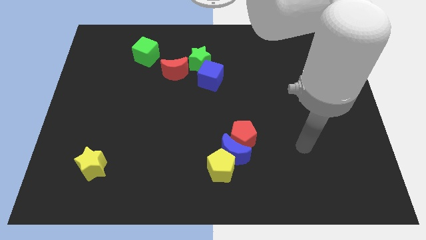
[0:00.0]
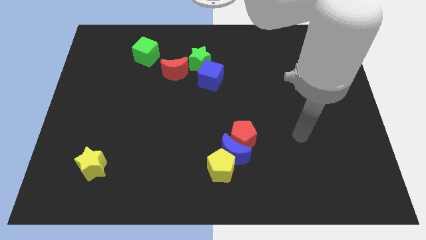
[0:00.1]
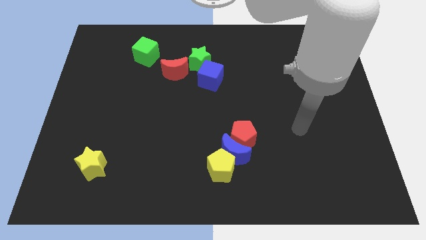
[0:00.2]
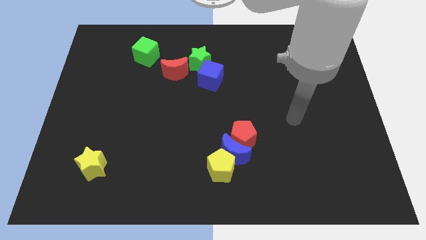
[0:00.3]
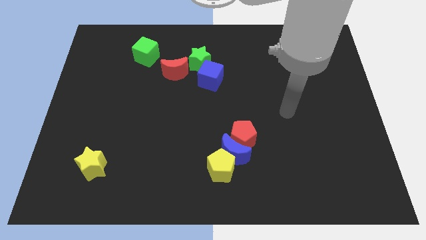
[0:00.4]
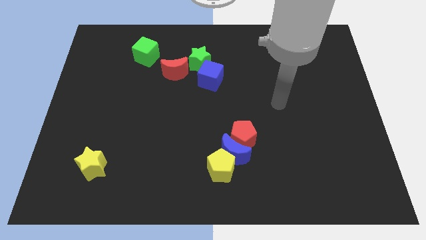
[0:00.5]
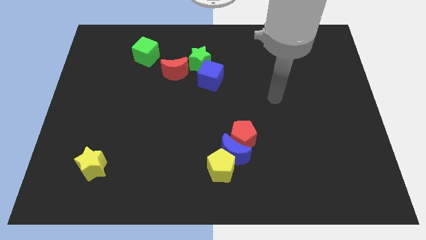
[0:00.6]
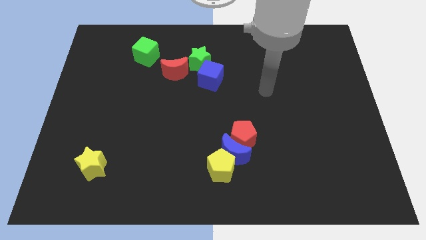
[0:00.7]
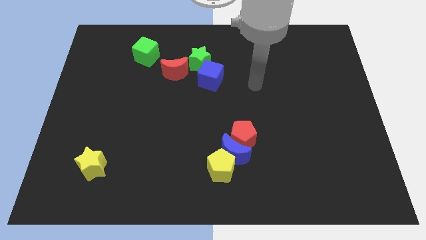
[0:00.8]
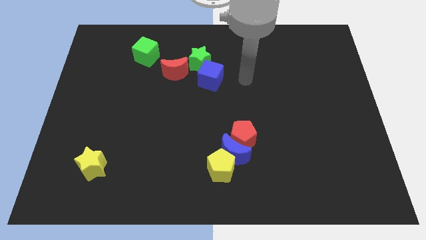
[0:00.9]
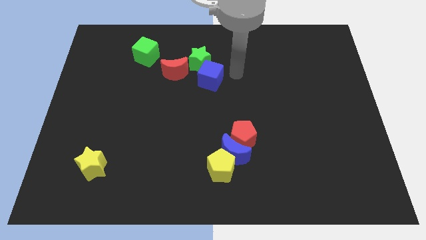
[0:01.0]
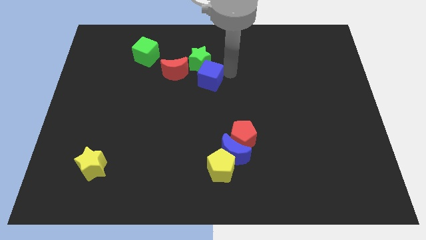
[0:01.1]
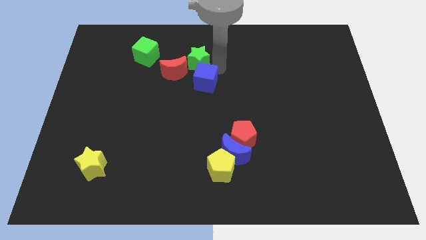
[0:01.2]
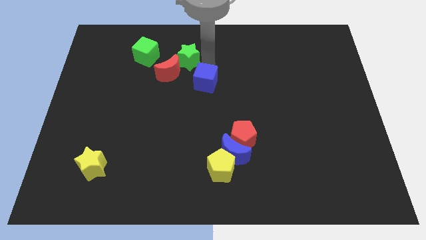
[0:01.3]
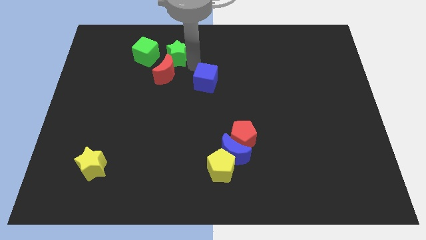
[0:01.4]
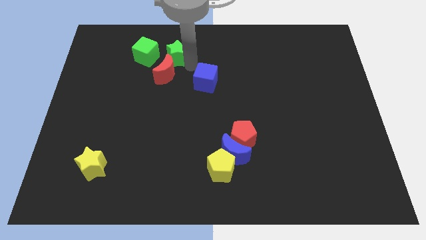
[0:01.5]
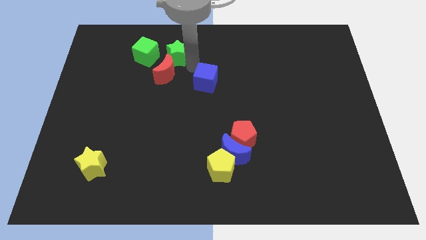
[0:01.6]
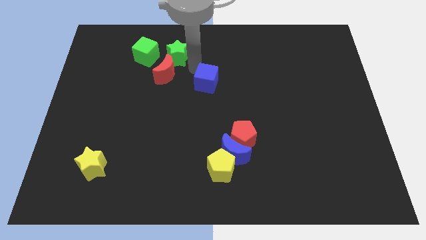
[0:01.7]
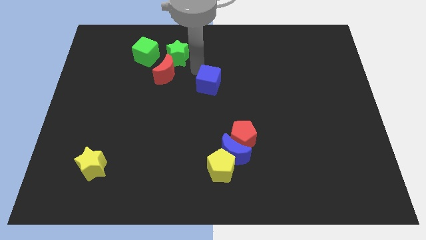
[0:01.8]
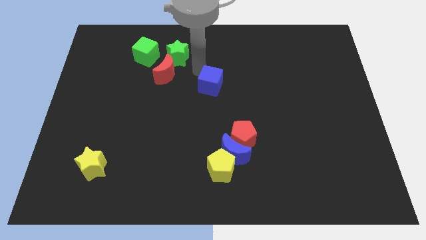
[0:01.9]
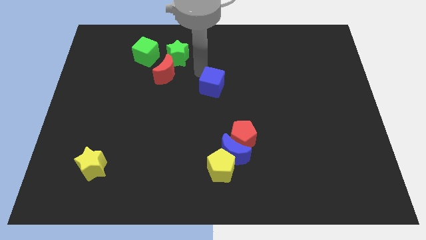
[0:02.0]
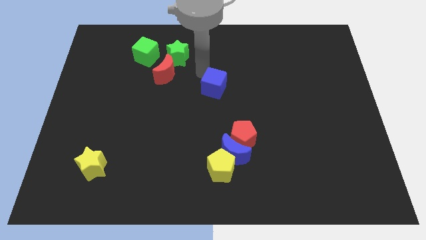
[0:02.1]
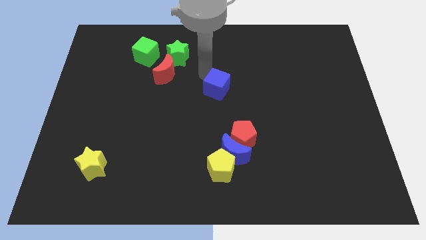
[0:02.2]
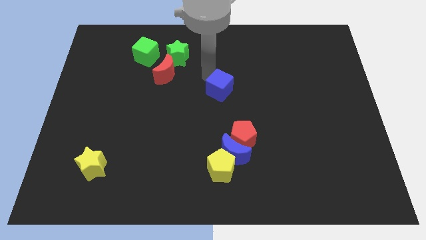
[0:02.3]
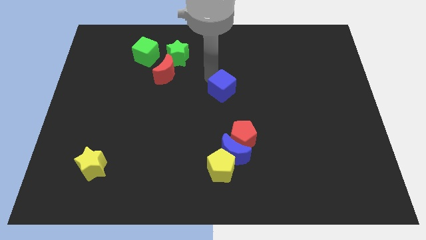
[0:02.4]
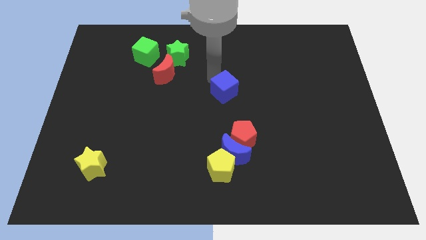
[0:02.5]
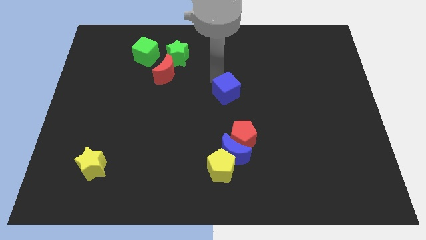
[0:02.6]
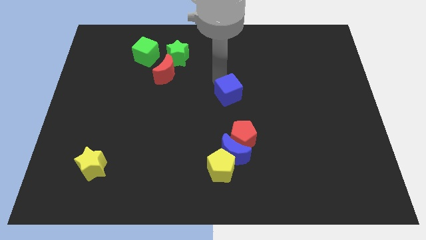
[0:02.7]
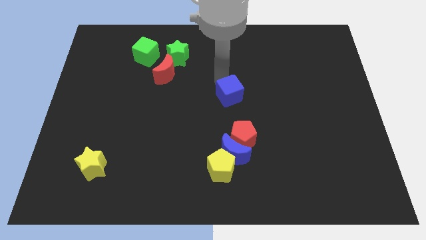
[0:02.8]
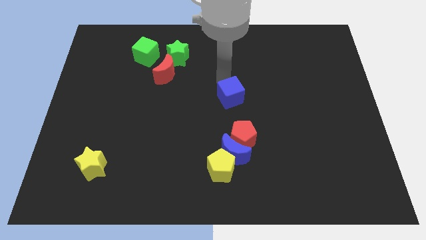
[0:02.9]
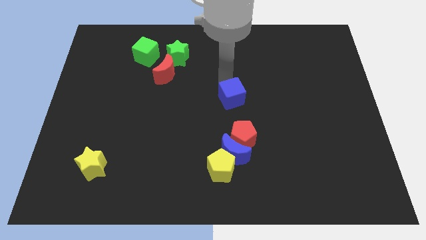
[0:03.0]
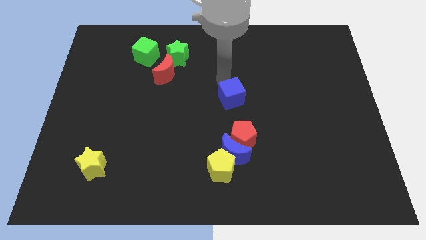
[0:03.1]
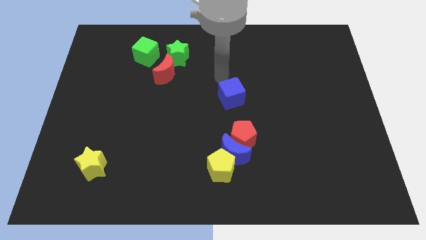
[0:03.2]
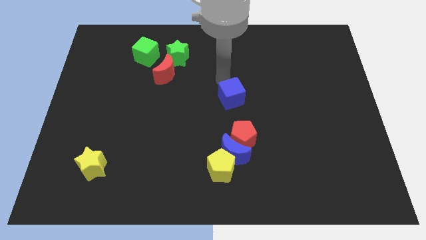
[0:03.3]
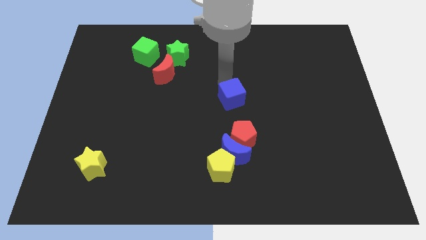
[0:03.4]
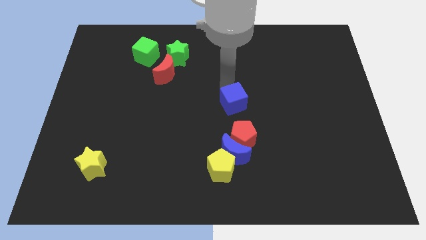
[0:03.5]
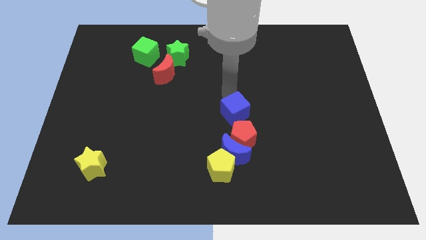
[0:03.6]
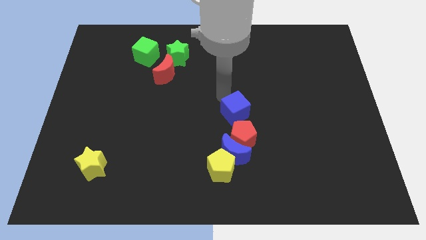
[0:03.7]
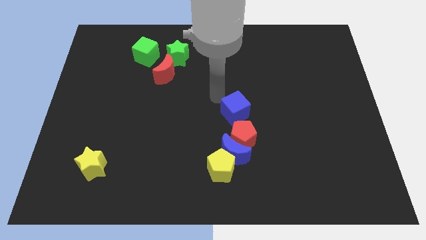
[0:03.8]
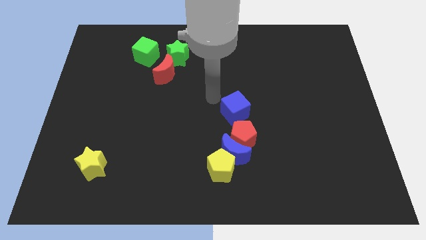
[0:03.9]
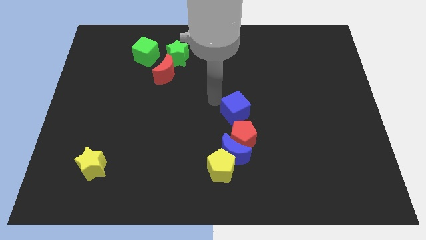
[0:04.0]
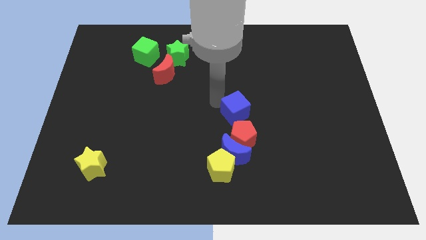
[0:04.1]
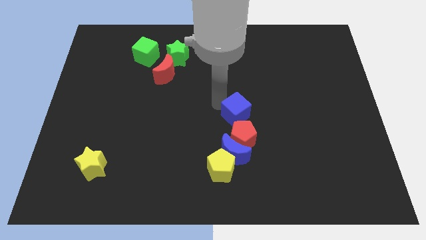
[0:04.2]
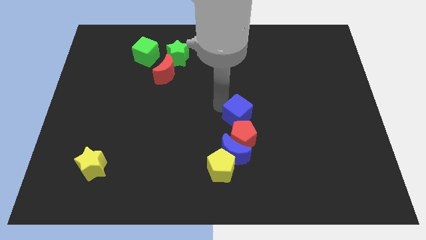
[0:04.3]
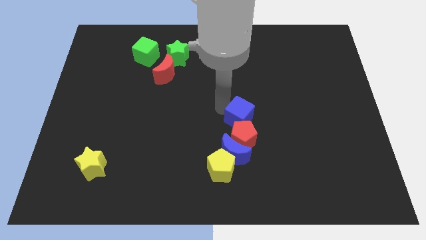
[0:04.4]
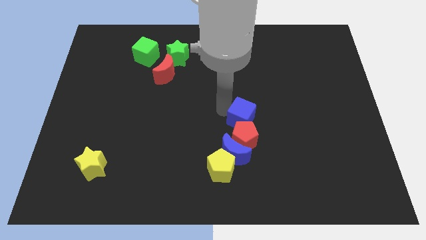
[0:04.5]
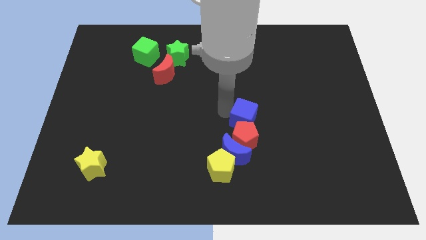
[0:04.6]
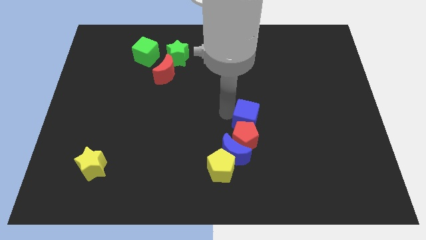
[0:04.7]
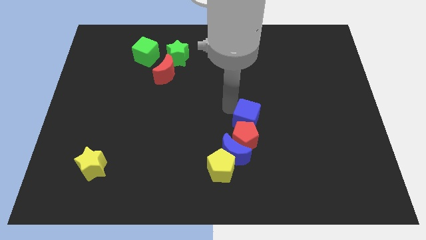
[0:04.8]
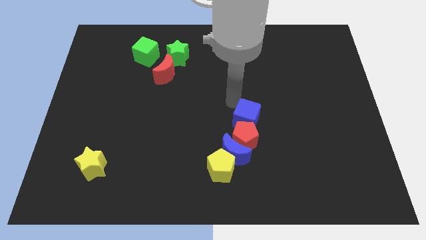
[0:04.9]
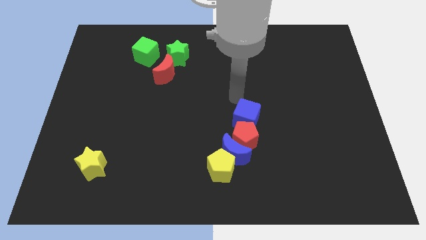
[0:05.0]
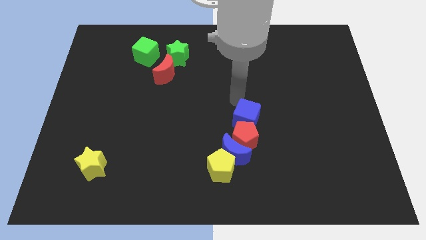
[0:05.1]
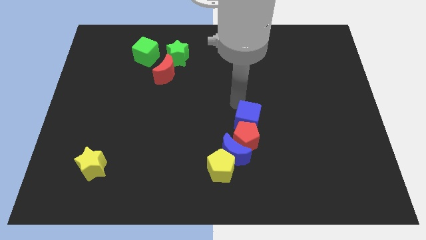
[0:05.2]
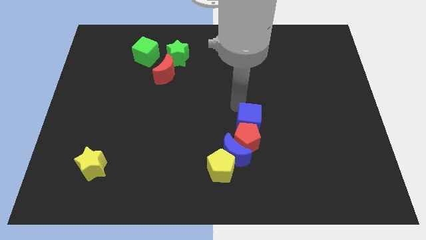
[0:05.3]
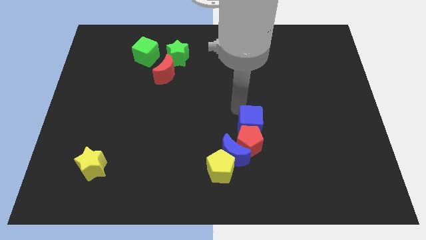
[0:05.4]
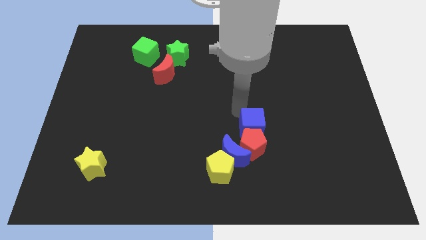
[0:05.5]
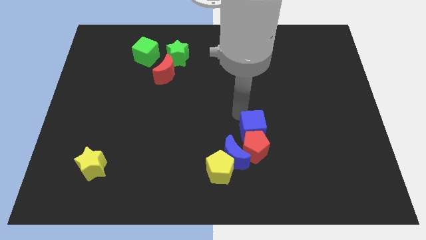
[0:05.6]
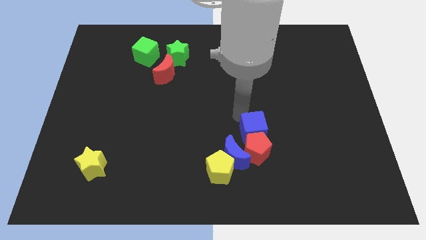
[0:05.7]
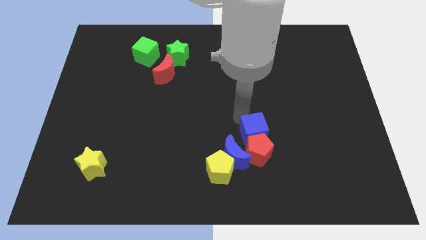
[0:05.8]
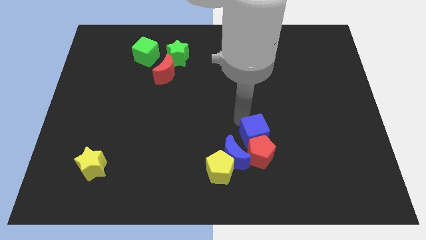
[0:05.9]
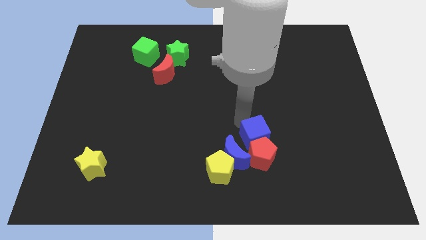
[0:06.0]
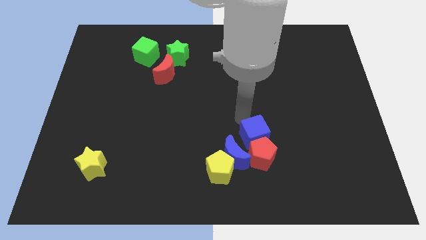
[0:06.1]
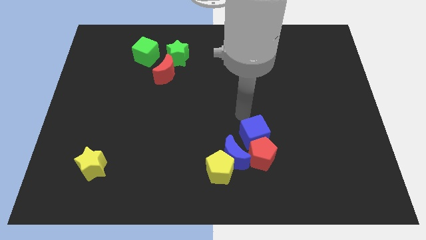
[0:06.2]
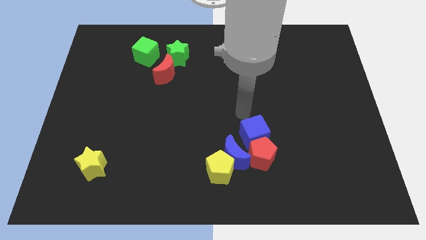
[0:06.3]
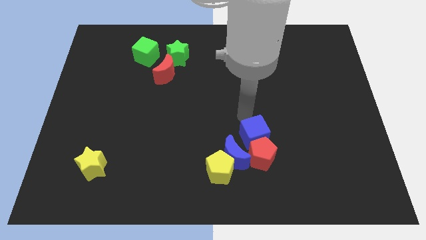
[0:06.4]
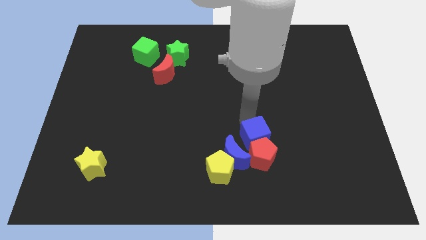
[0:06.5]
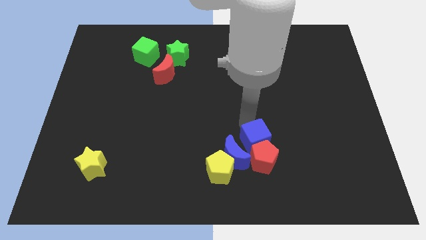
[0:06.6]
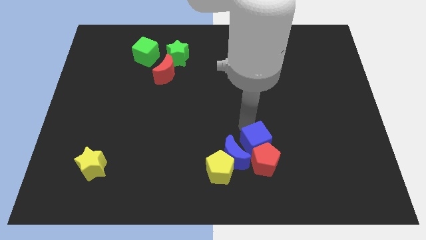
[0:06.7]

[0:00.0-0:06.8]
slide the blue cube close to the blue moon
